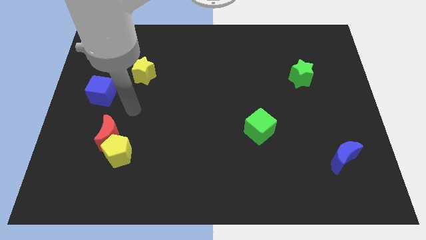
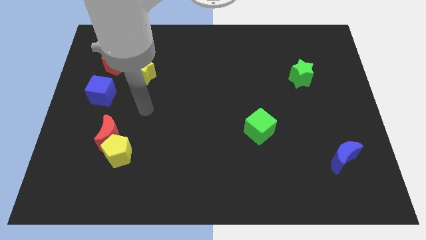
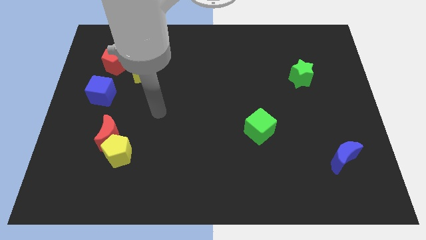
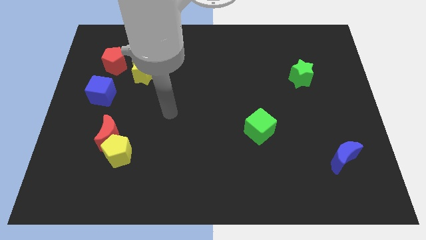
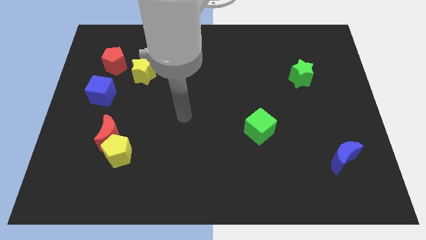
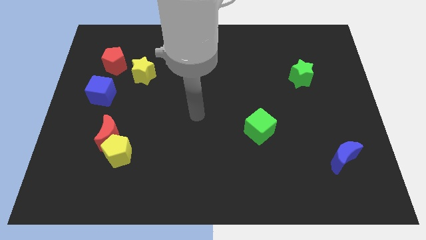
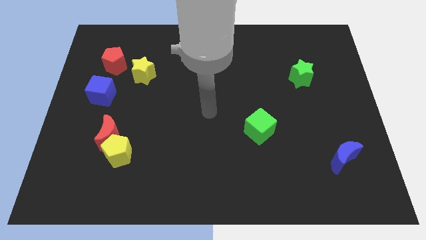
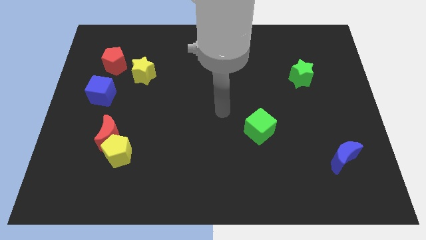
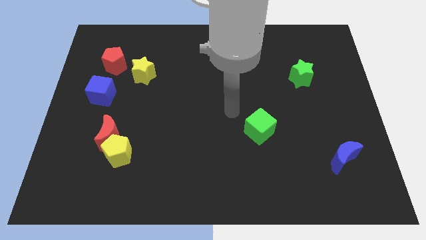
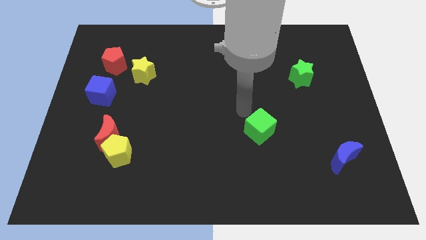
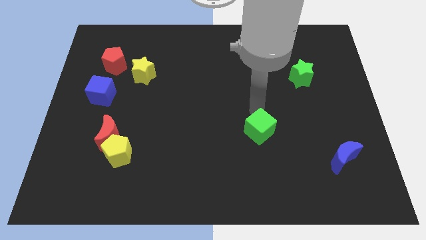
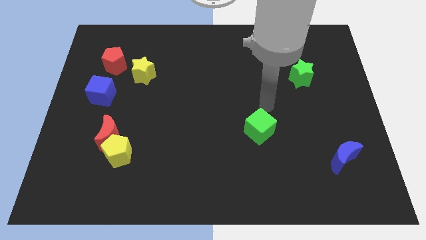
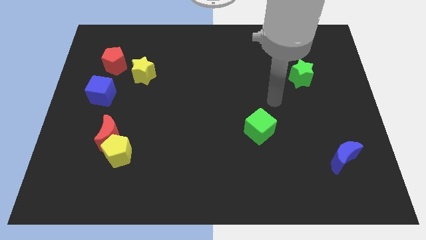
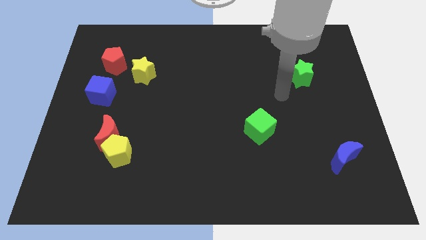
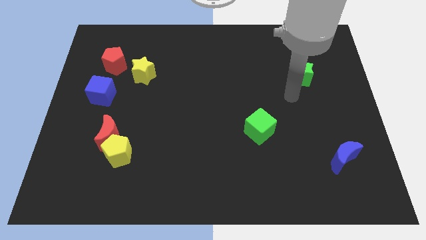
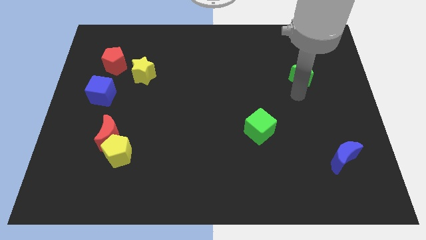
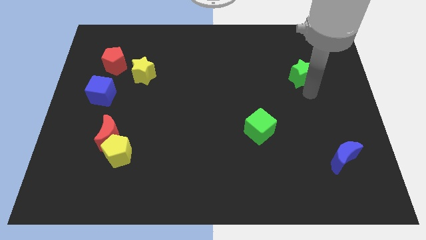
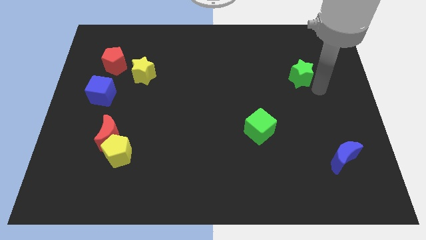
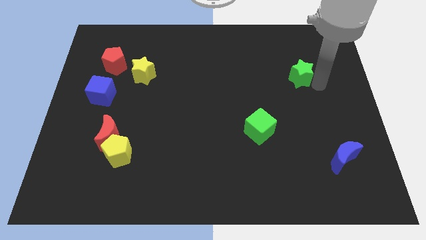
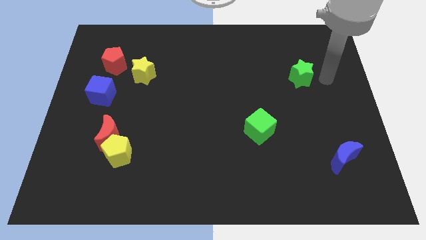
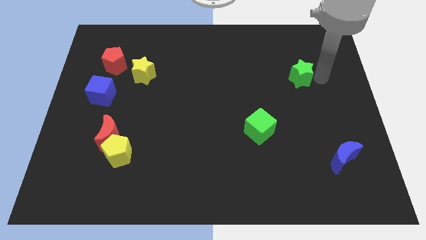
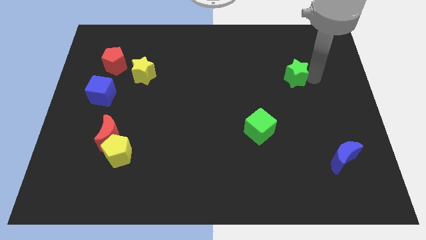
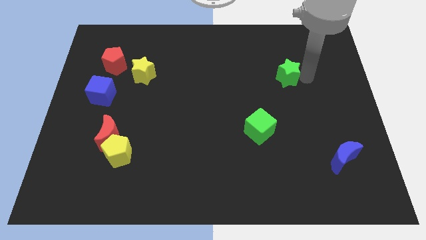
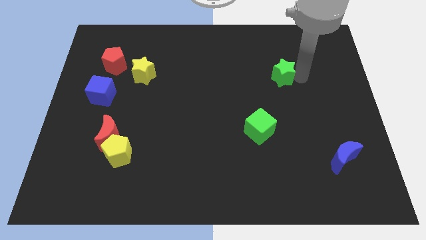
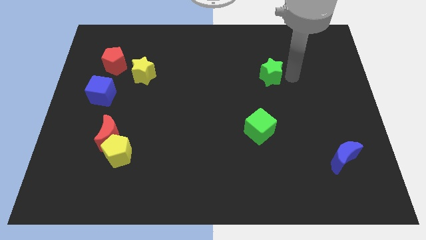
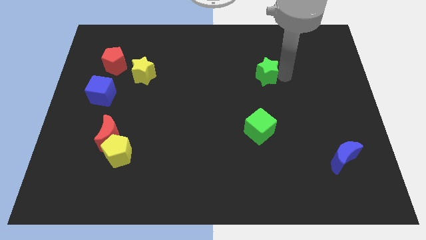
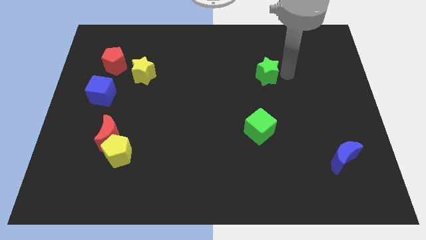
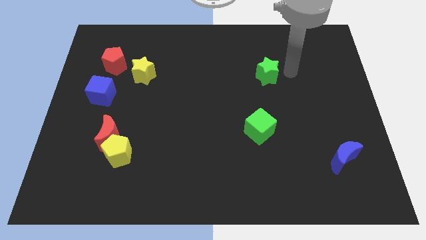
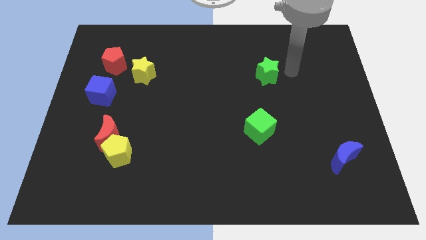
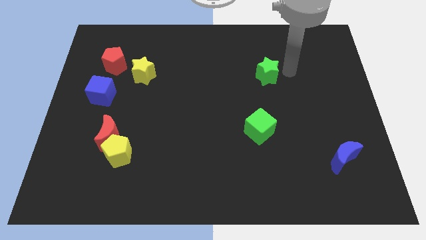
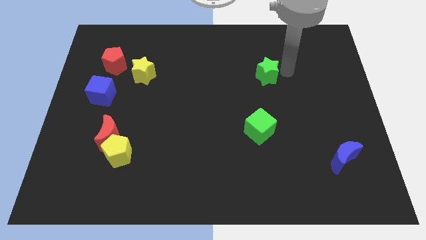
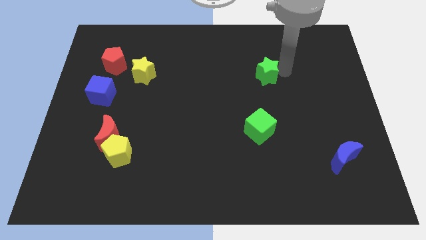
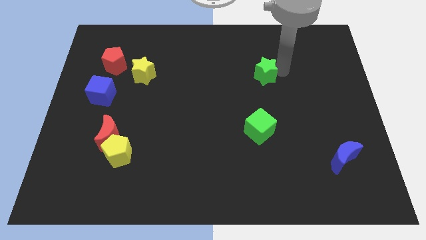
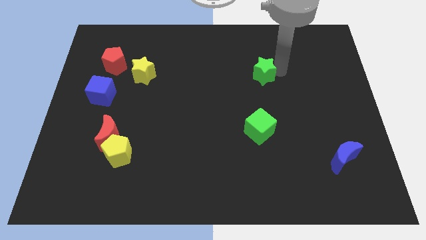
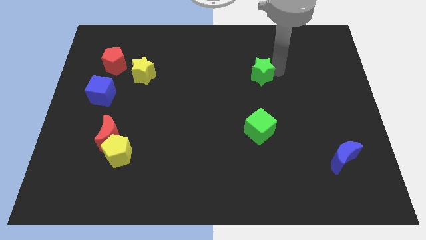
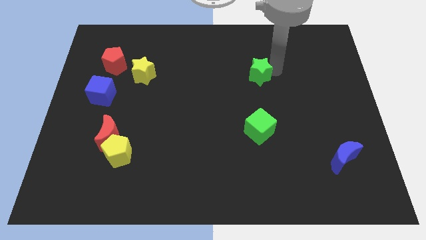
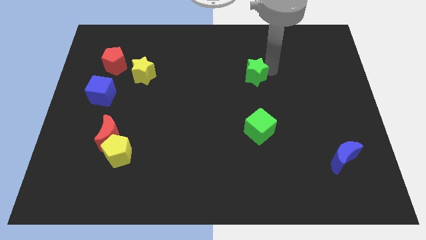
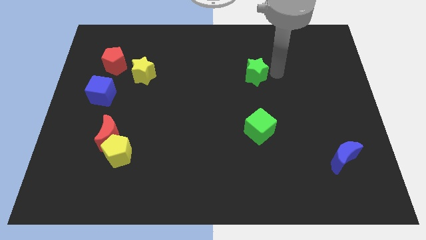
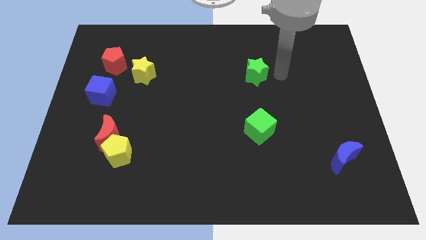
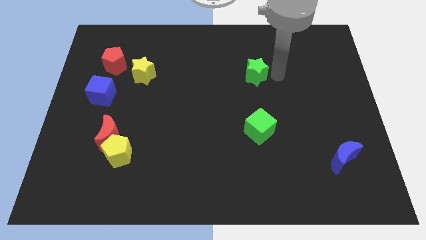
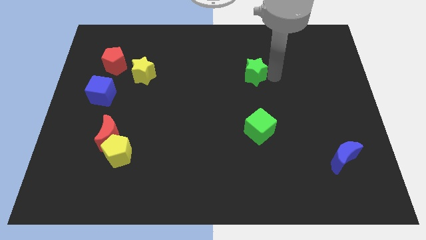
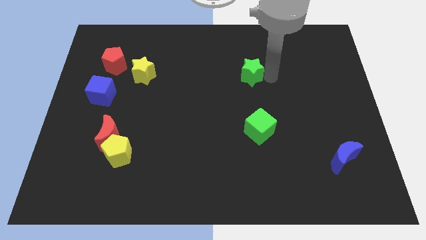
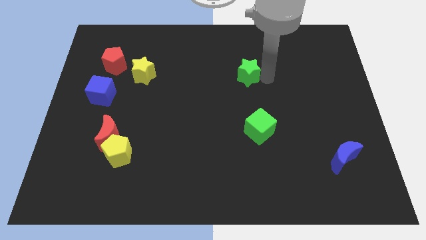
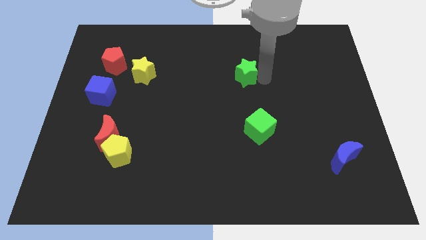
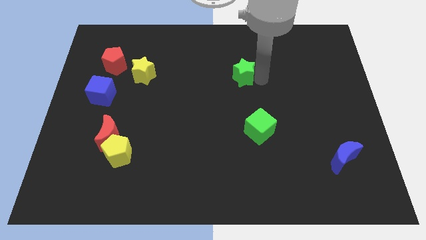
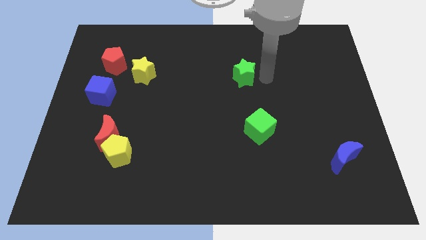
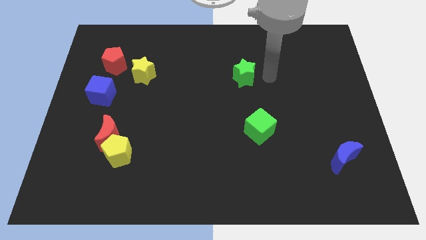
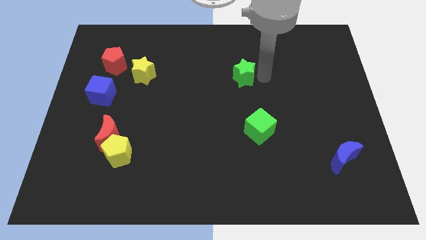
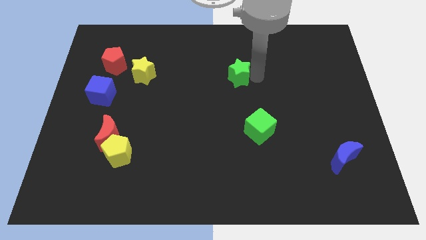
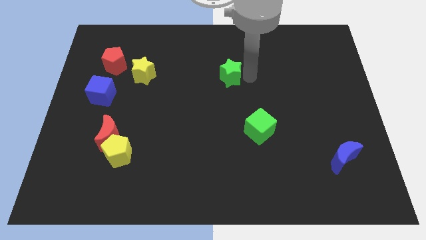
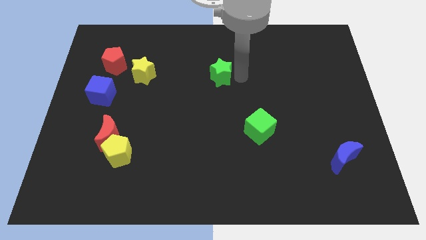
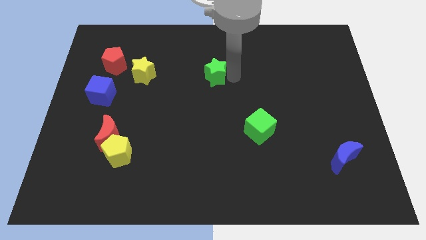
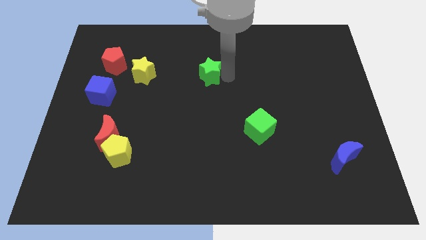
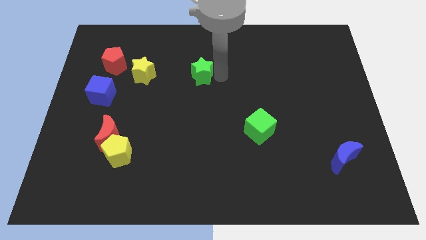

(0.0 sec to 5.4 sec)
put the green star right of the yellow star
